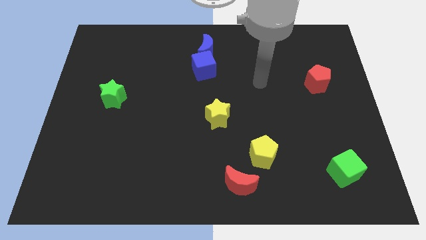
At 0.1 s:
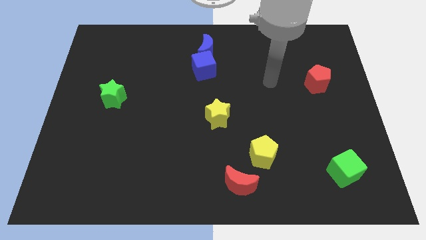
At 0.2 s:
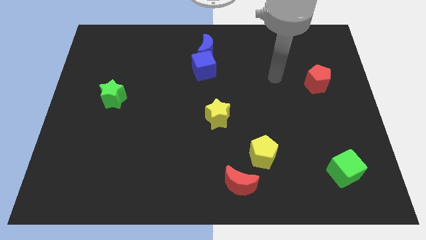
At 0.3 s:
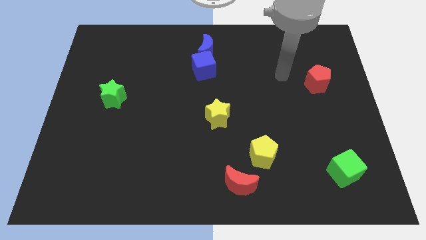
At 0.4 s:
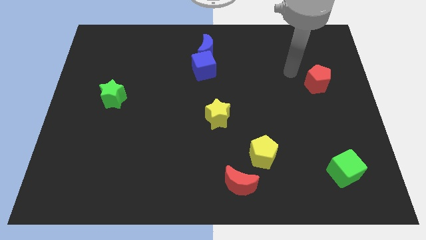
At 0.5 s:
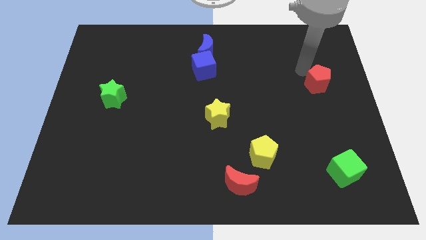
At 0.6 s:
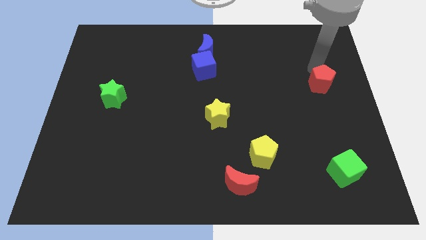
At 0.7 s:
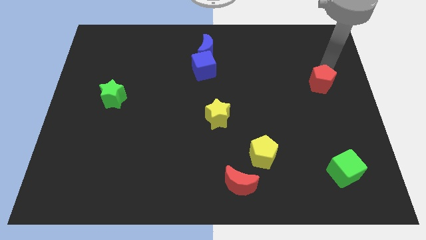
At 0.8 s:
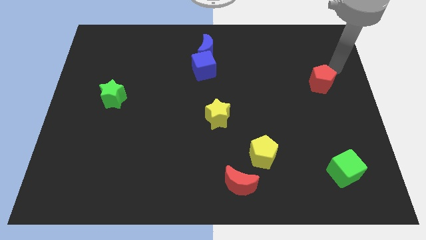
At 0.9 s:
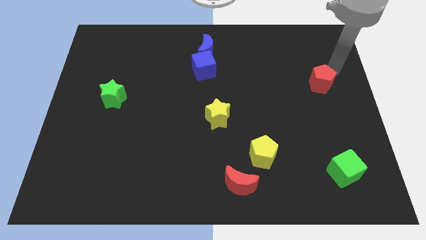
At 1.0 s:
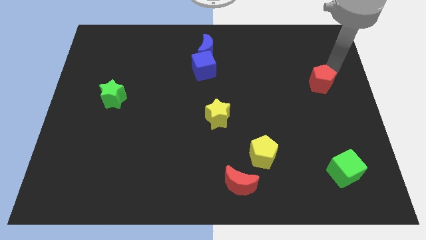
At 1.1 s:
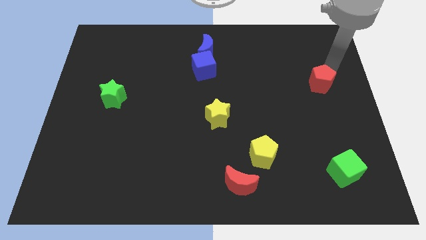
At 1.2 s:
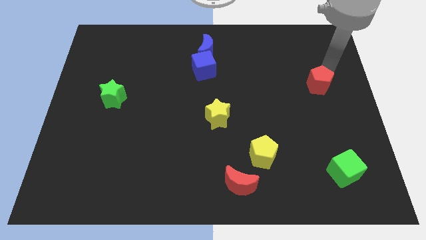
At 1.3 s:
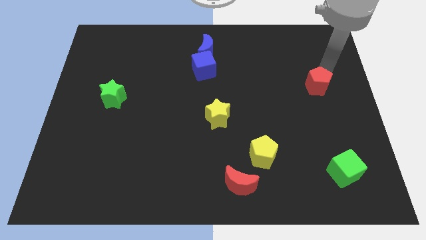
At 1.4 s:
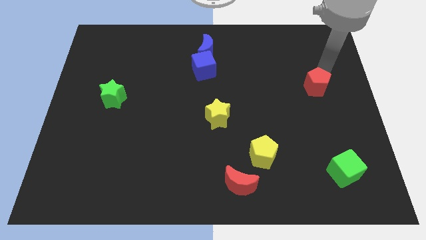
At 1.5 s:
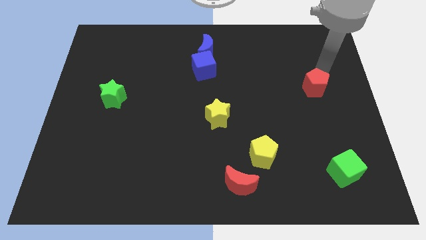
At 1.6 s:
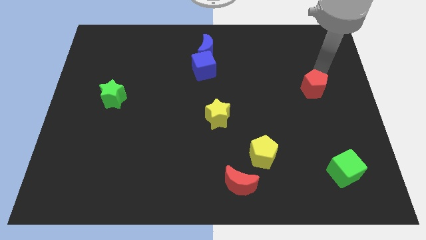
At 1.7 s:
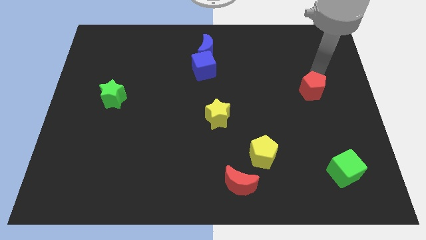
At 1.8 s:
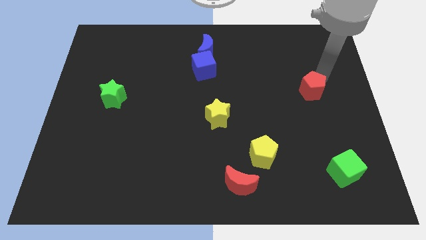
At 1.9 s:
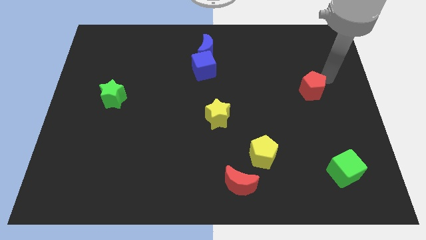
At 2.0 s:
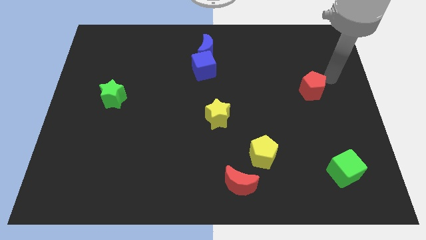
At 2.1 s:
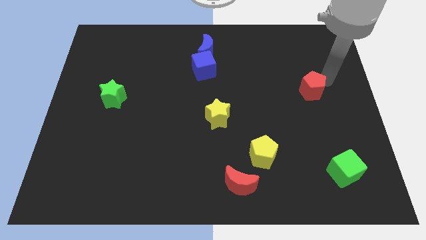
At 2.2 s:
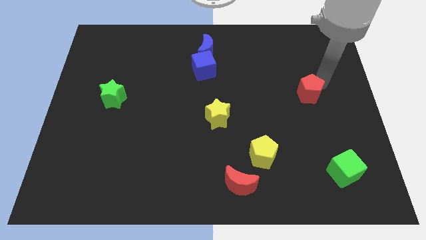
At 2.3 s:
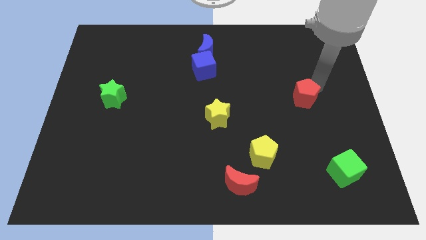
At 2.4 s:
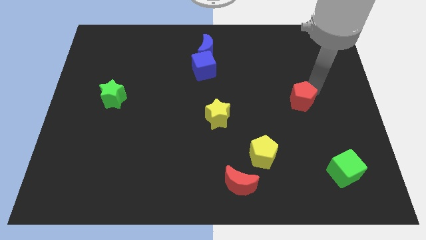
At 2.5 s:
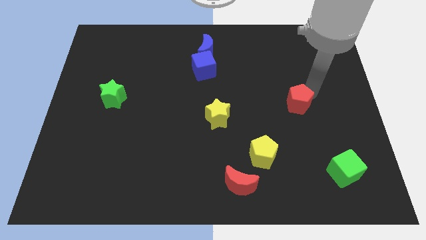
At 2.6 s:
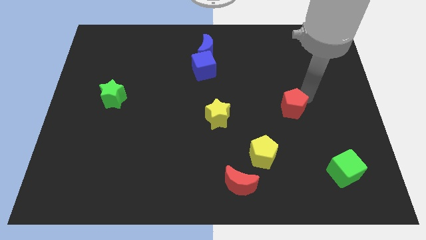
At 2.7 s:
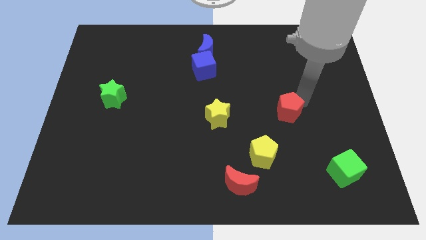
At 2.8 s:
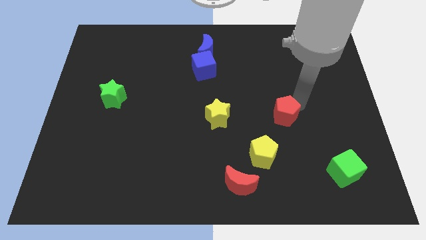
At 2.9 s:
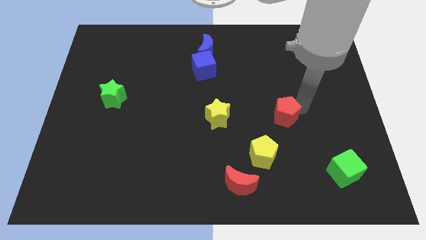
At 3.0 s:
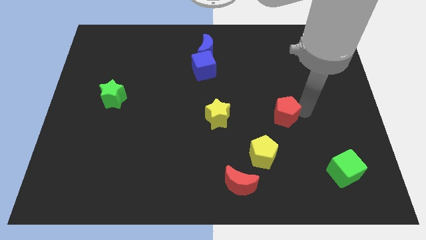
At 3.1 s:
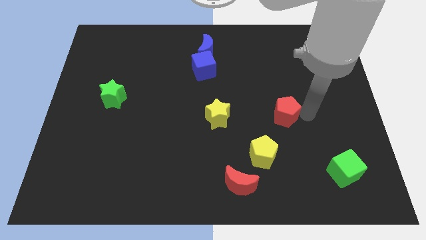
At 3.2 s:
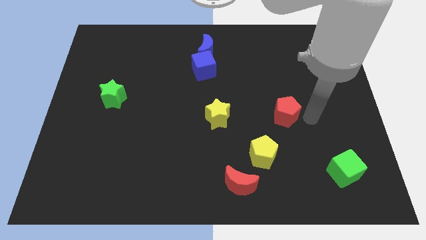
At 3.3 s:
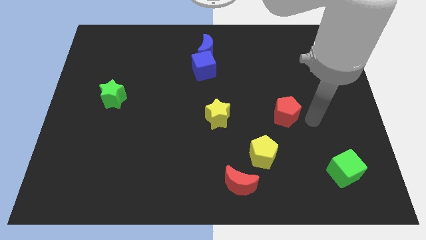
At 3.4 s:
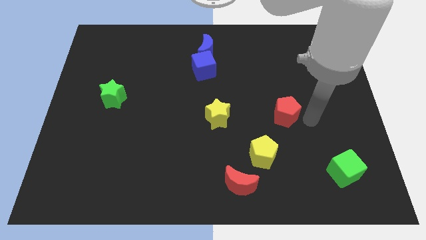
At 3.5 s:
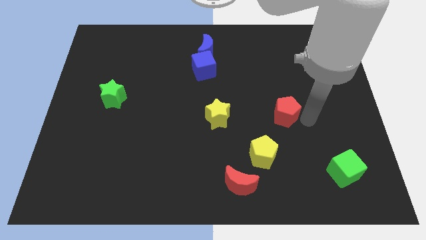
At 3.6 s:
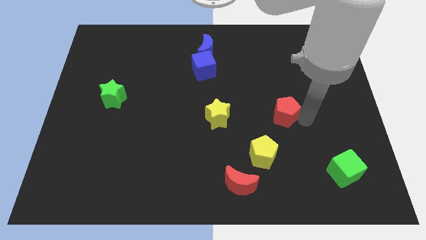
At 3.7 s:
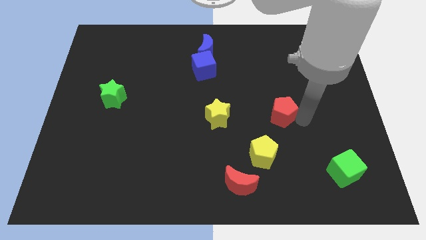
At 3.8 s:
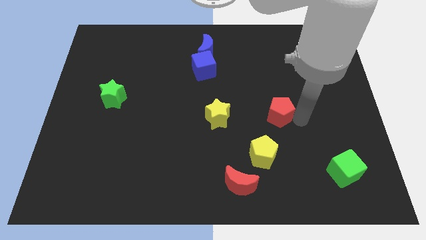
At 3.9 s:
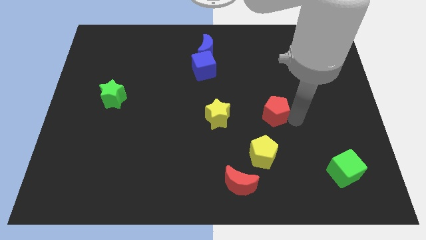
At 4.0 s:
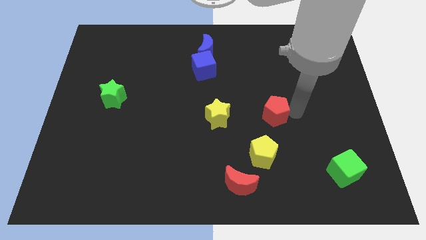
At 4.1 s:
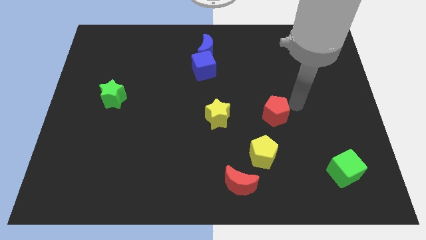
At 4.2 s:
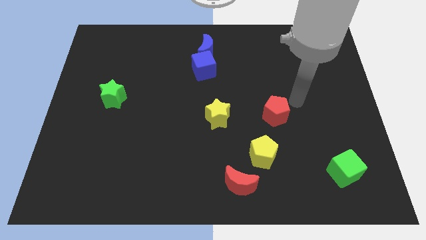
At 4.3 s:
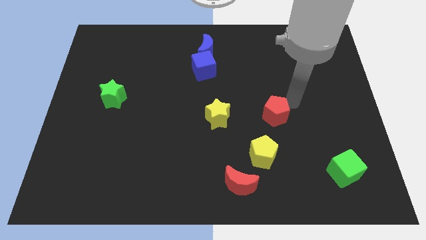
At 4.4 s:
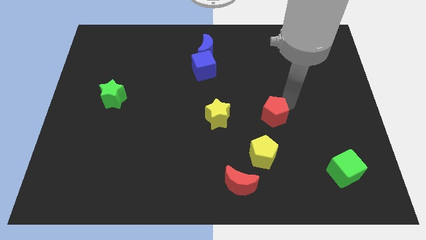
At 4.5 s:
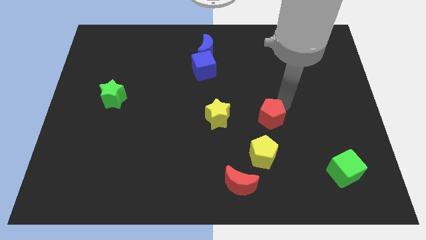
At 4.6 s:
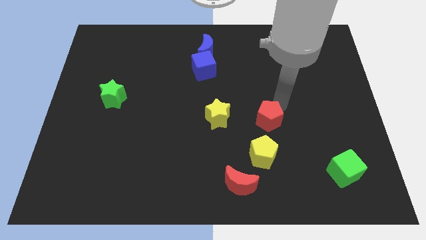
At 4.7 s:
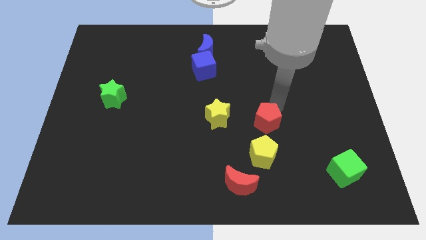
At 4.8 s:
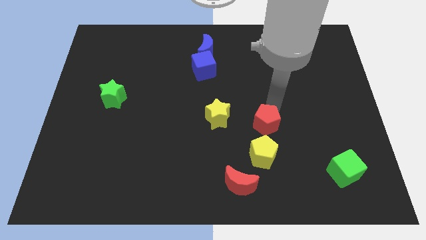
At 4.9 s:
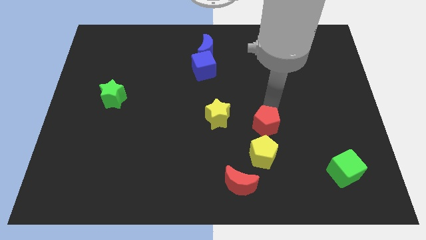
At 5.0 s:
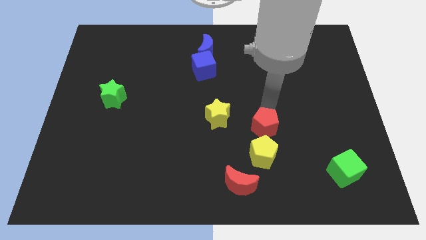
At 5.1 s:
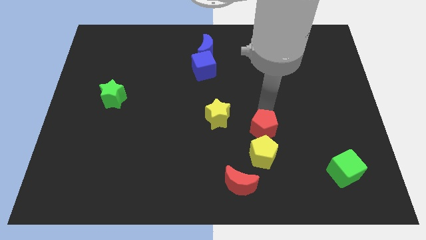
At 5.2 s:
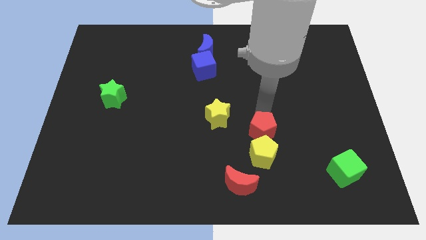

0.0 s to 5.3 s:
push the red pentagon diagonally up and to the left of the yellow pentagon

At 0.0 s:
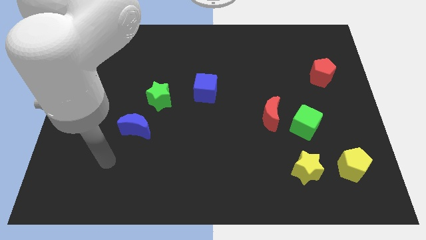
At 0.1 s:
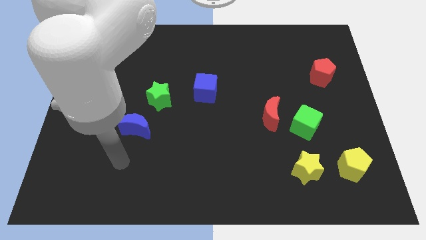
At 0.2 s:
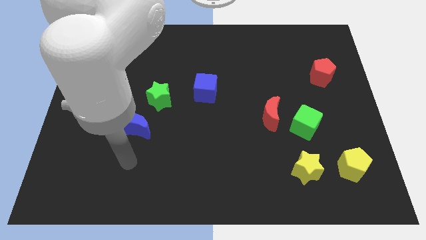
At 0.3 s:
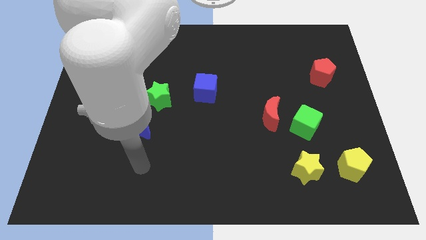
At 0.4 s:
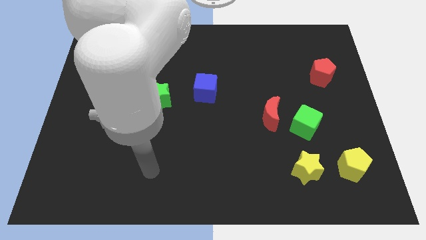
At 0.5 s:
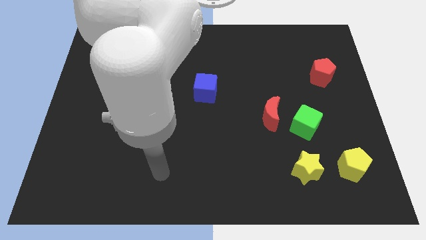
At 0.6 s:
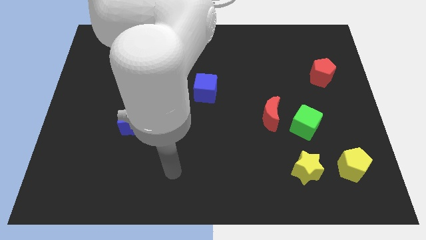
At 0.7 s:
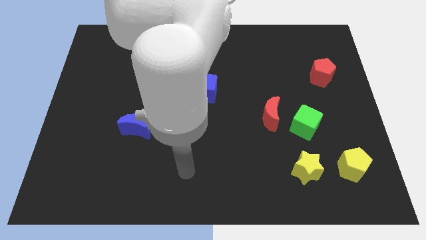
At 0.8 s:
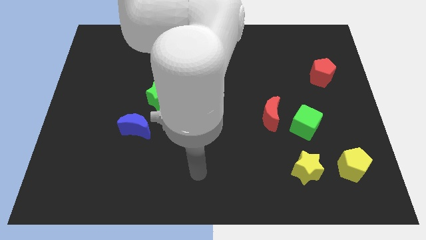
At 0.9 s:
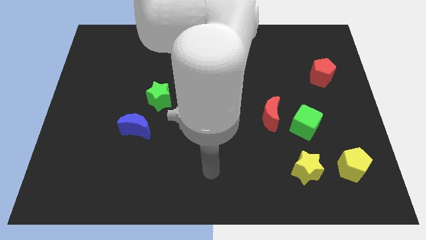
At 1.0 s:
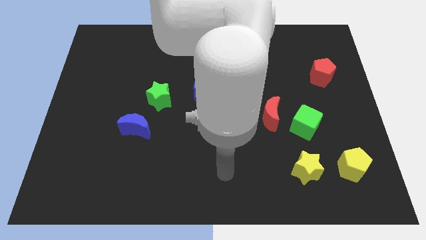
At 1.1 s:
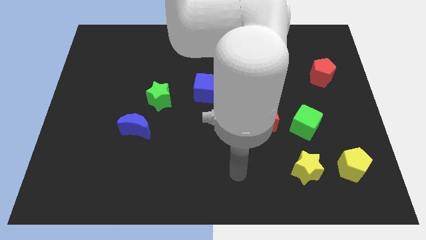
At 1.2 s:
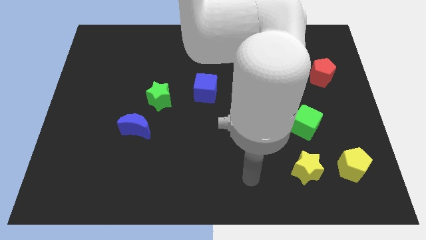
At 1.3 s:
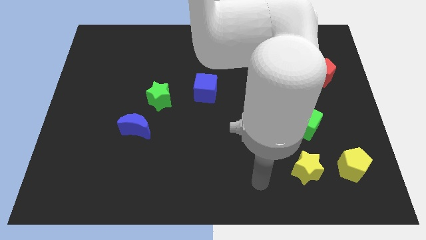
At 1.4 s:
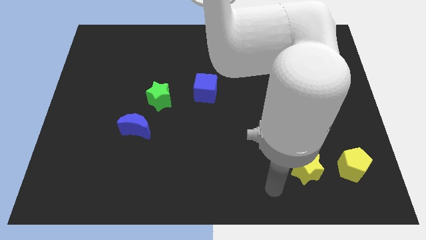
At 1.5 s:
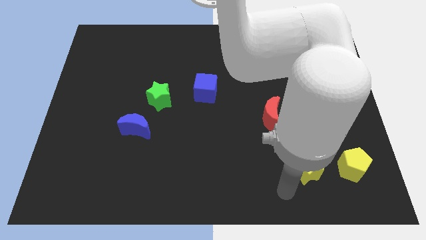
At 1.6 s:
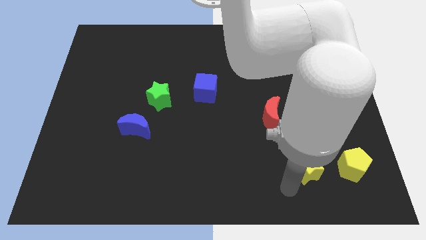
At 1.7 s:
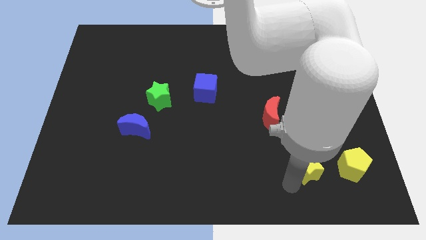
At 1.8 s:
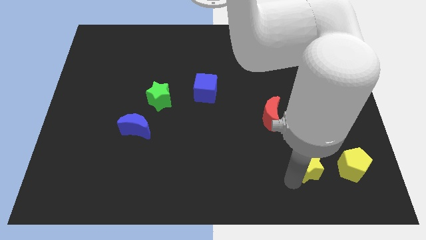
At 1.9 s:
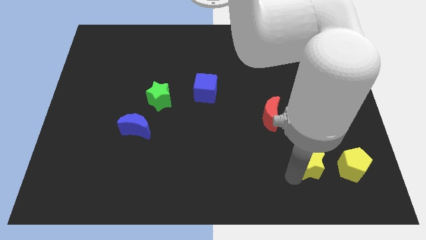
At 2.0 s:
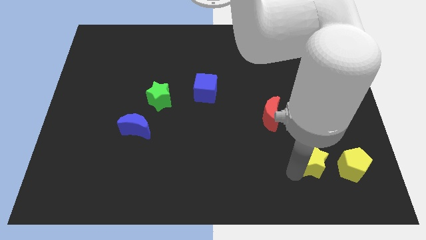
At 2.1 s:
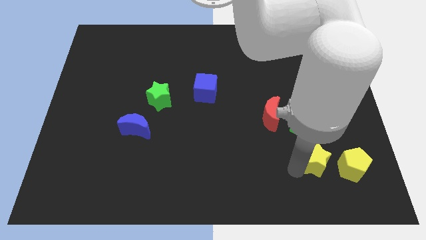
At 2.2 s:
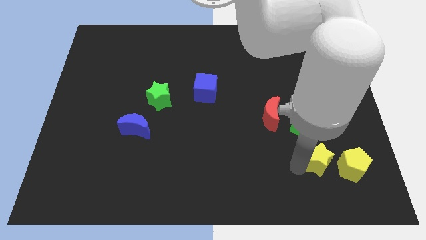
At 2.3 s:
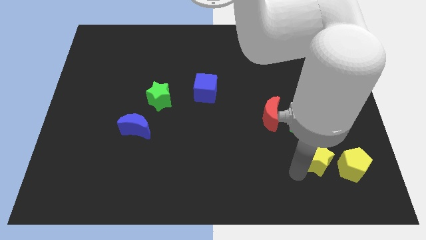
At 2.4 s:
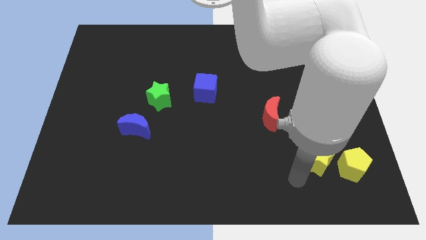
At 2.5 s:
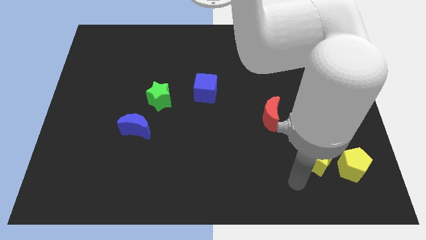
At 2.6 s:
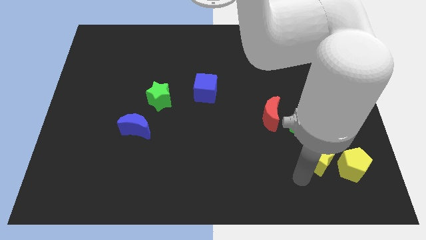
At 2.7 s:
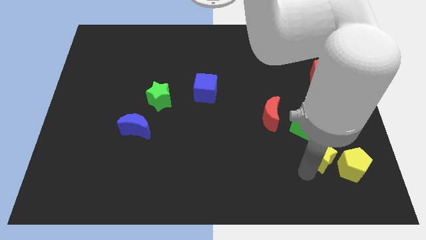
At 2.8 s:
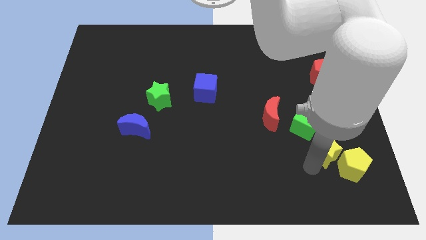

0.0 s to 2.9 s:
move the yellow star diagonally down and to the right of the green cube
